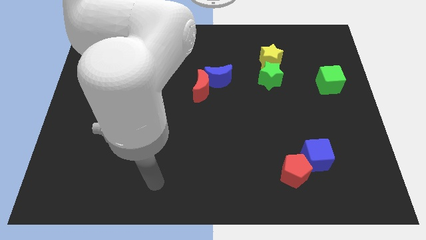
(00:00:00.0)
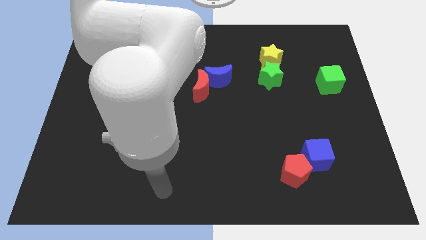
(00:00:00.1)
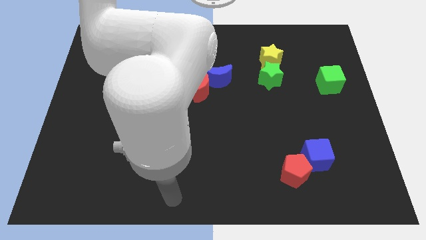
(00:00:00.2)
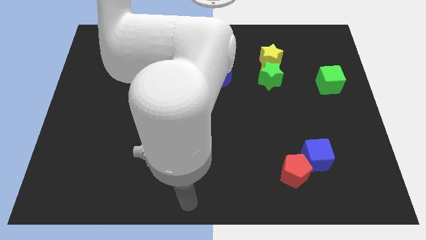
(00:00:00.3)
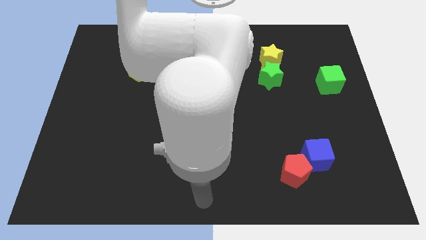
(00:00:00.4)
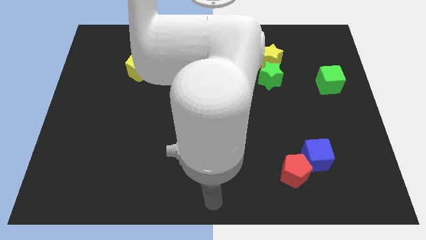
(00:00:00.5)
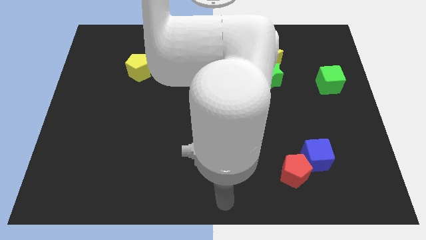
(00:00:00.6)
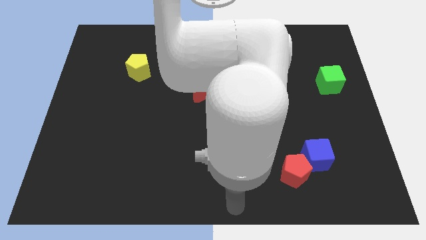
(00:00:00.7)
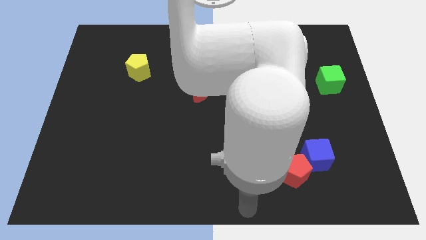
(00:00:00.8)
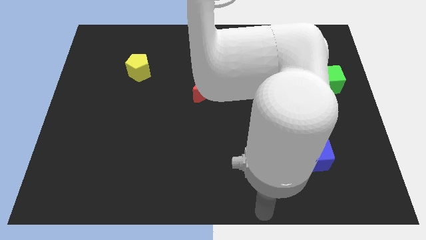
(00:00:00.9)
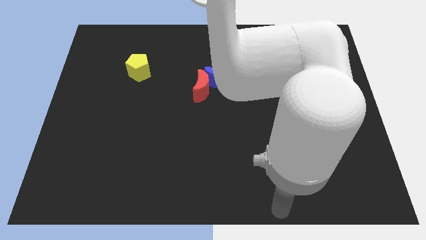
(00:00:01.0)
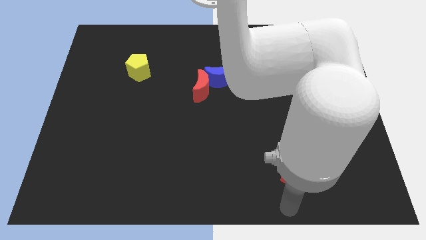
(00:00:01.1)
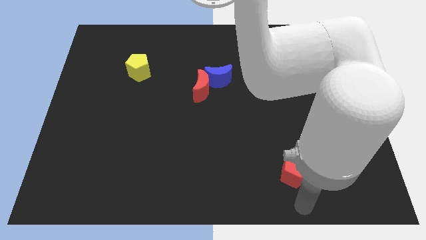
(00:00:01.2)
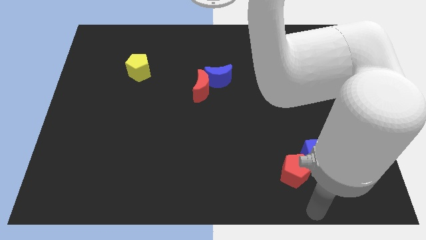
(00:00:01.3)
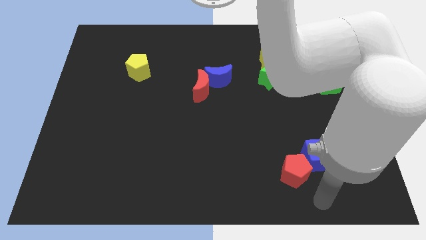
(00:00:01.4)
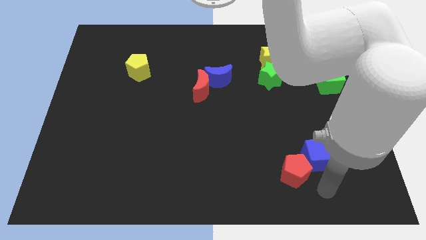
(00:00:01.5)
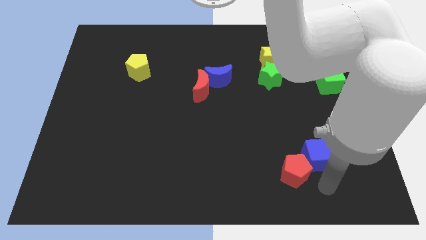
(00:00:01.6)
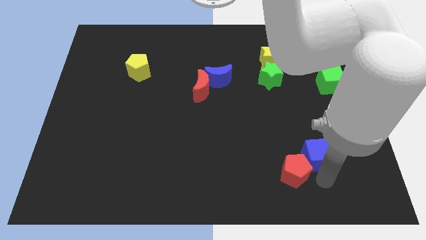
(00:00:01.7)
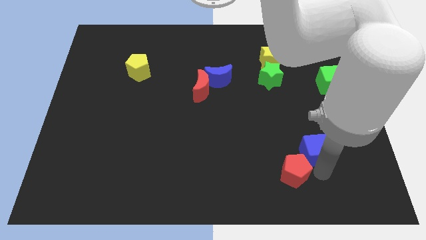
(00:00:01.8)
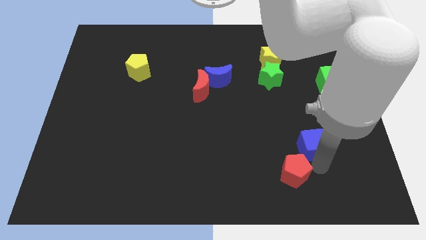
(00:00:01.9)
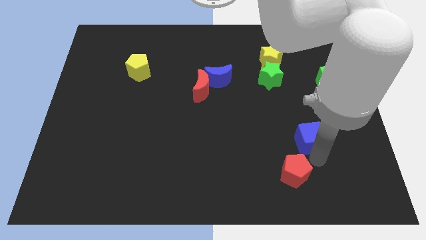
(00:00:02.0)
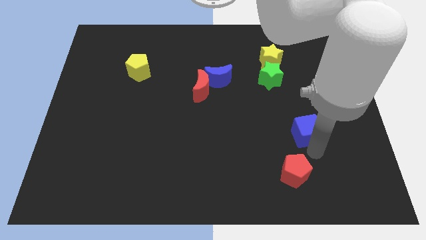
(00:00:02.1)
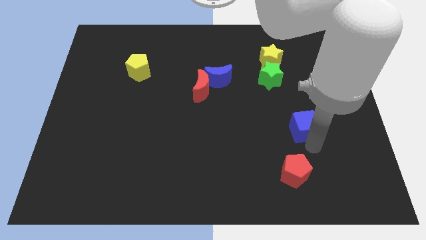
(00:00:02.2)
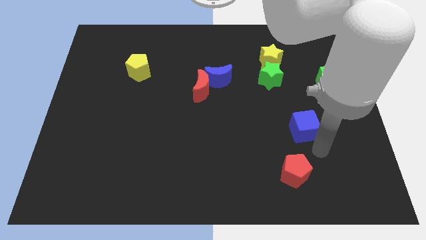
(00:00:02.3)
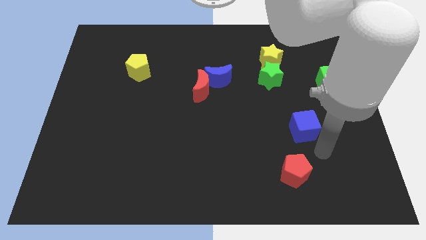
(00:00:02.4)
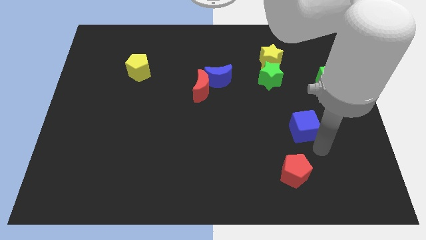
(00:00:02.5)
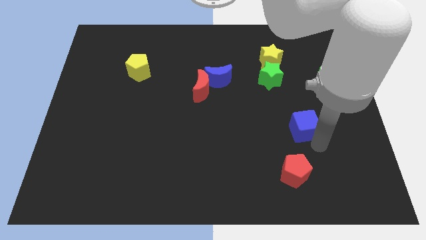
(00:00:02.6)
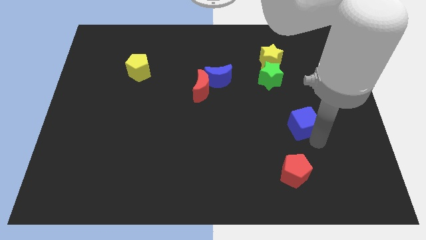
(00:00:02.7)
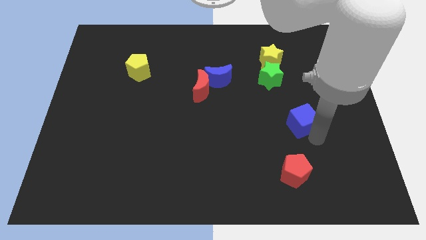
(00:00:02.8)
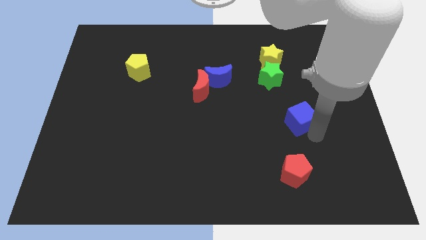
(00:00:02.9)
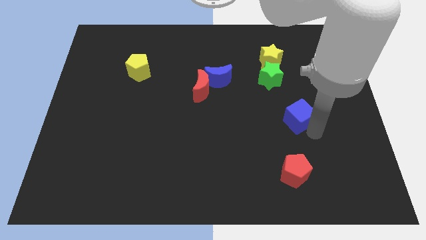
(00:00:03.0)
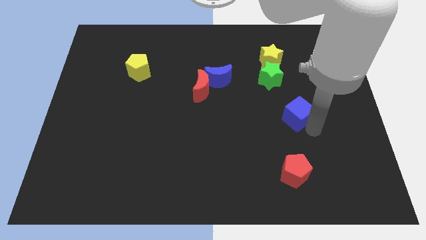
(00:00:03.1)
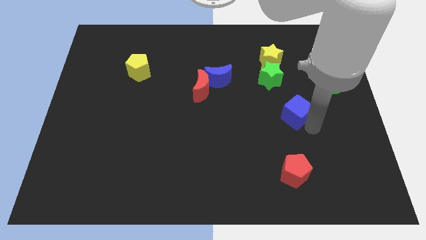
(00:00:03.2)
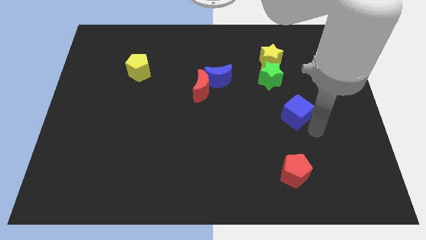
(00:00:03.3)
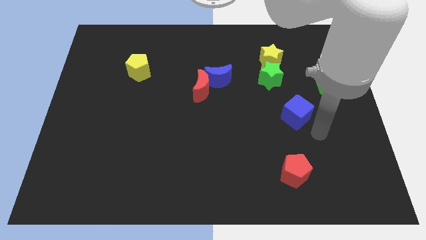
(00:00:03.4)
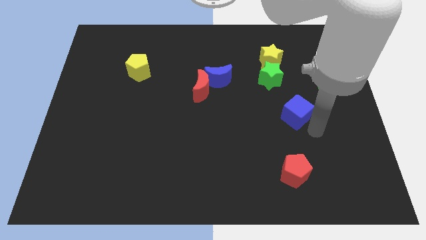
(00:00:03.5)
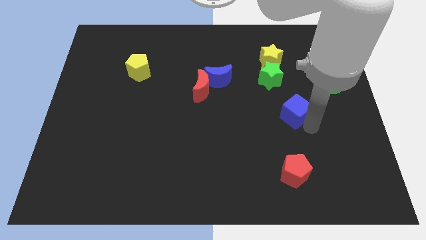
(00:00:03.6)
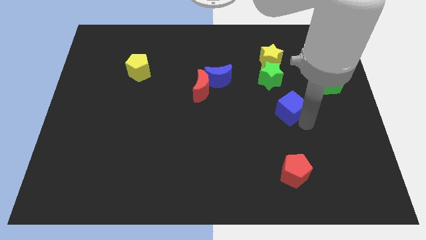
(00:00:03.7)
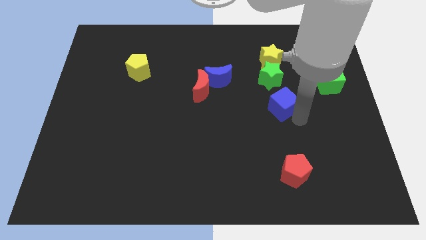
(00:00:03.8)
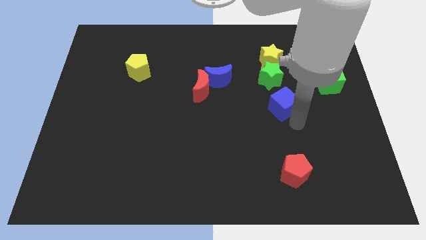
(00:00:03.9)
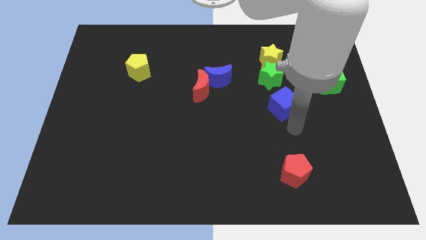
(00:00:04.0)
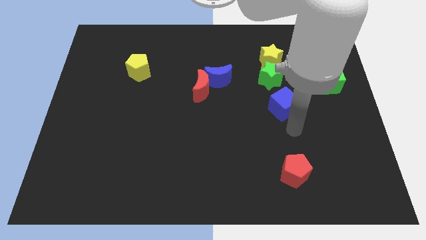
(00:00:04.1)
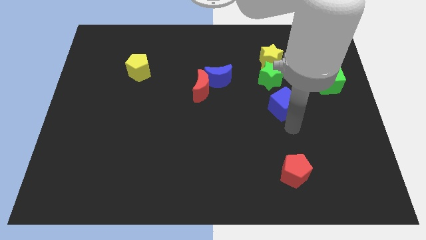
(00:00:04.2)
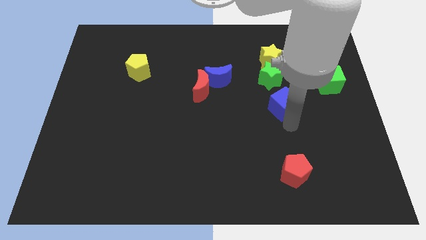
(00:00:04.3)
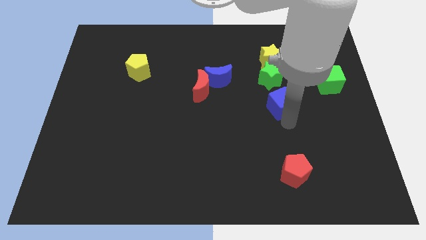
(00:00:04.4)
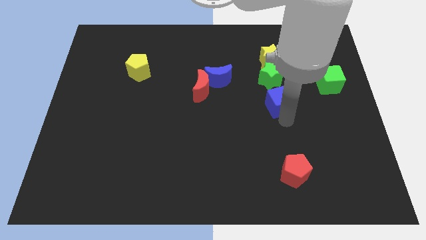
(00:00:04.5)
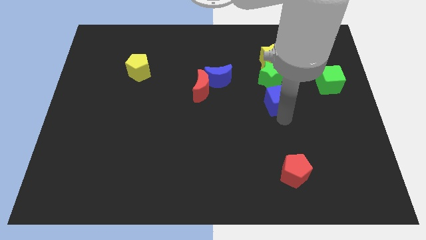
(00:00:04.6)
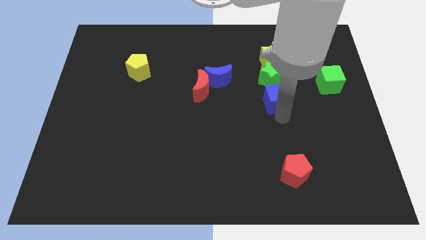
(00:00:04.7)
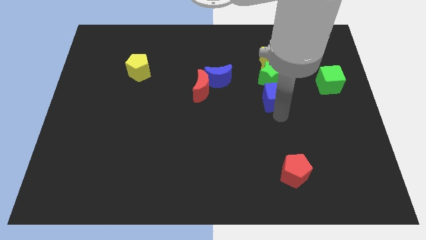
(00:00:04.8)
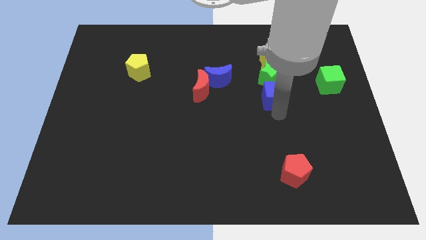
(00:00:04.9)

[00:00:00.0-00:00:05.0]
put the blue cube close to the green star

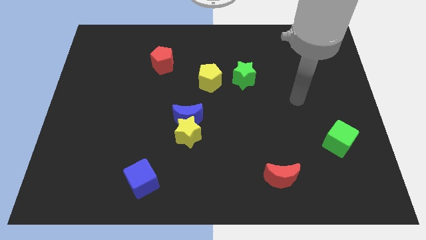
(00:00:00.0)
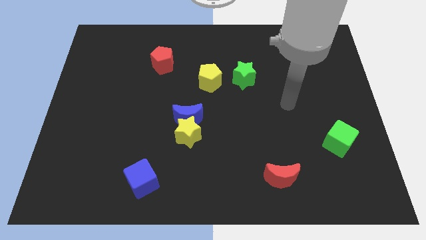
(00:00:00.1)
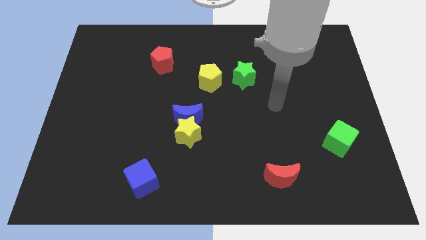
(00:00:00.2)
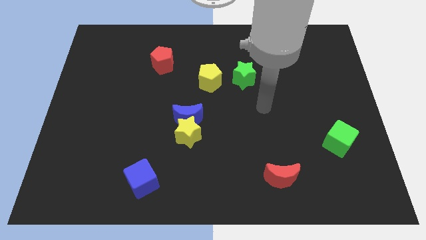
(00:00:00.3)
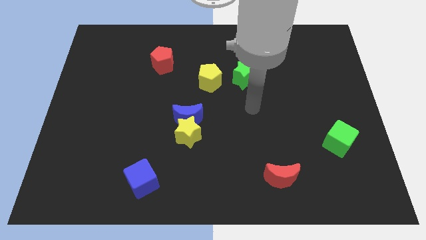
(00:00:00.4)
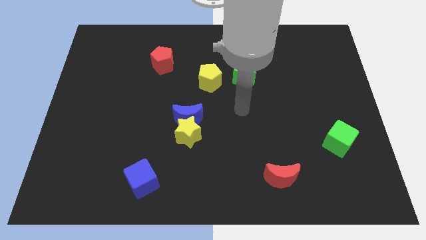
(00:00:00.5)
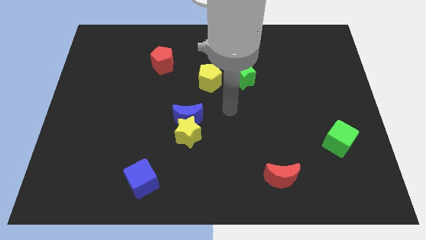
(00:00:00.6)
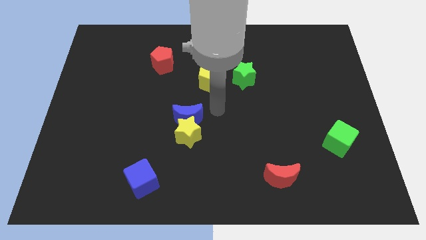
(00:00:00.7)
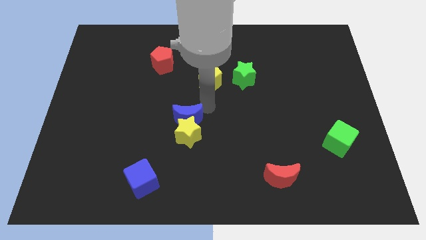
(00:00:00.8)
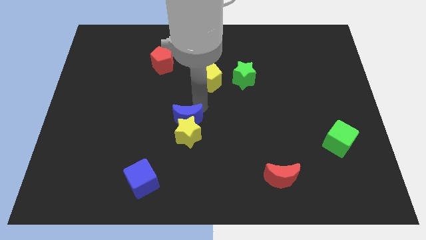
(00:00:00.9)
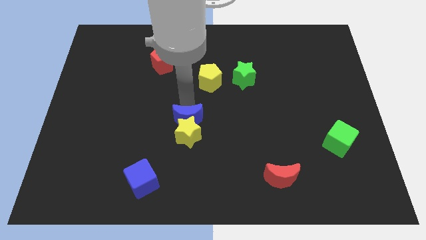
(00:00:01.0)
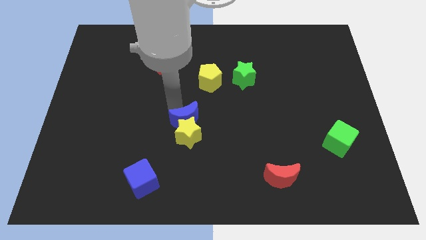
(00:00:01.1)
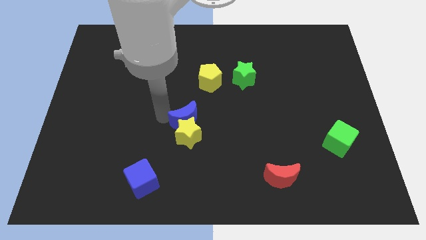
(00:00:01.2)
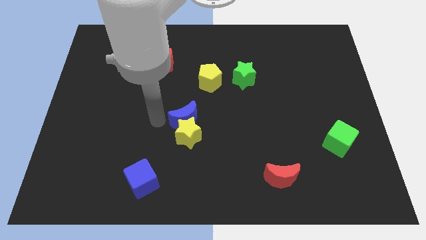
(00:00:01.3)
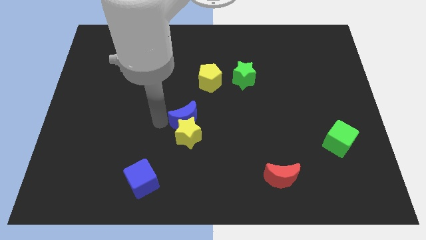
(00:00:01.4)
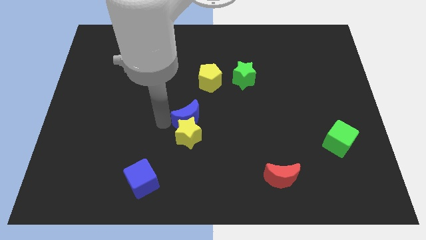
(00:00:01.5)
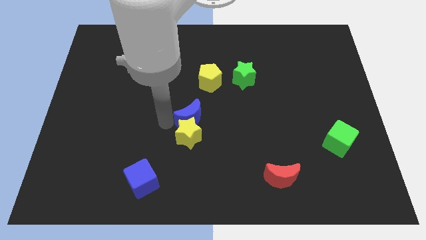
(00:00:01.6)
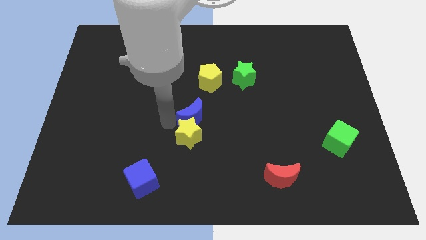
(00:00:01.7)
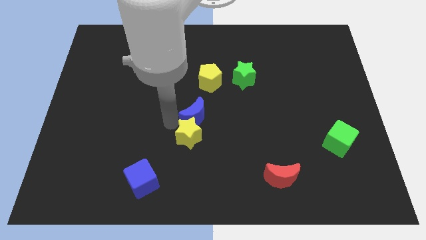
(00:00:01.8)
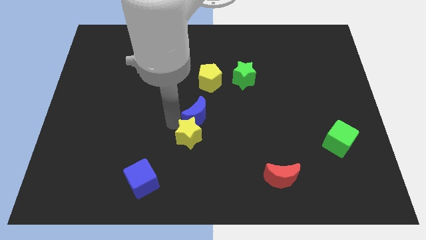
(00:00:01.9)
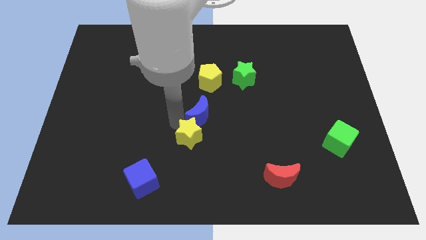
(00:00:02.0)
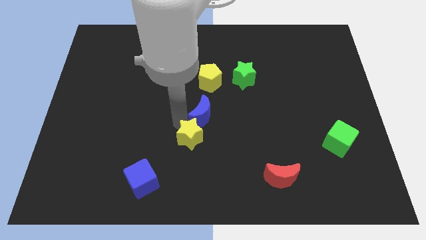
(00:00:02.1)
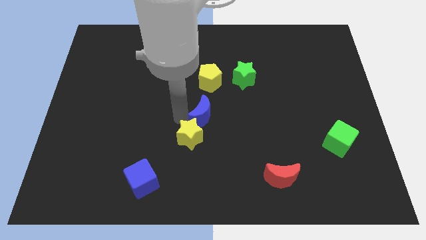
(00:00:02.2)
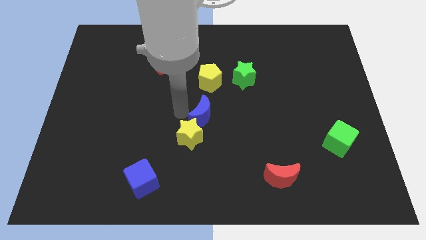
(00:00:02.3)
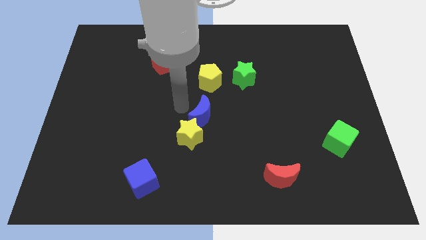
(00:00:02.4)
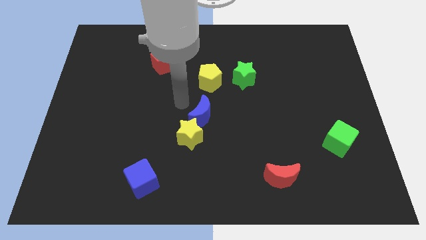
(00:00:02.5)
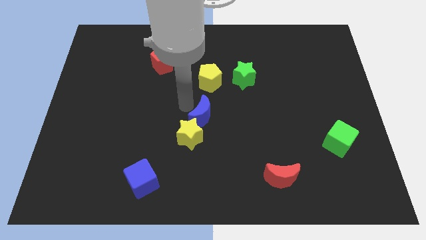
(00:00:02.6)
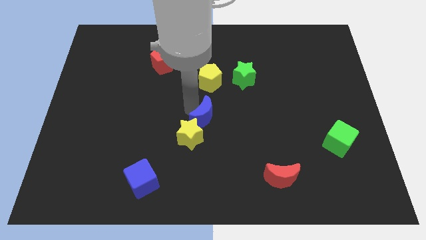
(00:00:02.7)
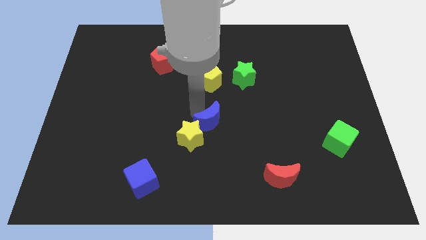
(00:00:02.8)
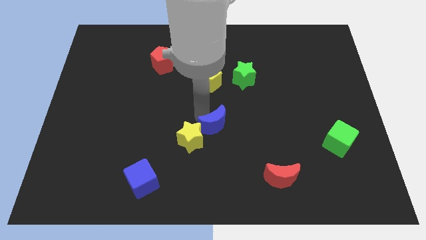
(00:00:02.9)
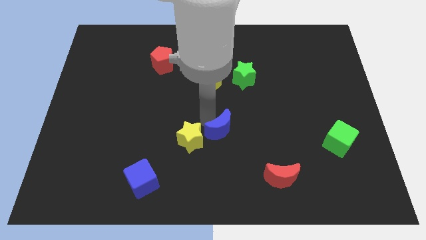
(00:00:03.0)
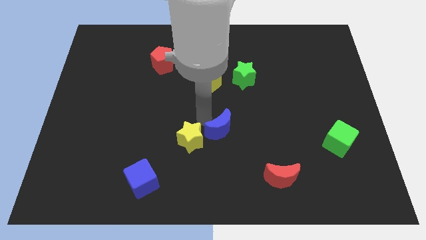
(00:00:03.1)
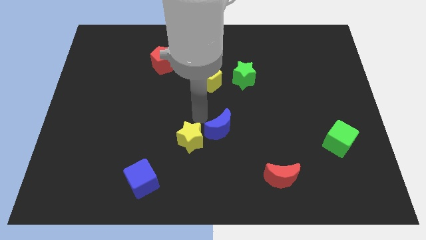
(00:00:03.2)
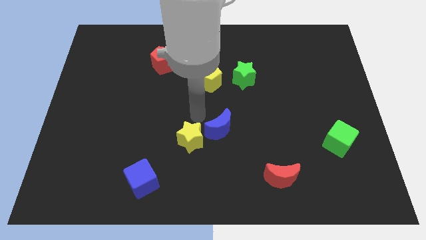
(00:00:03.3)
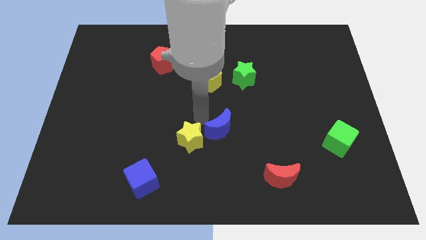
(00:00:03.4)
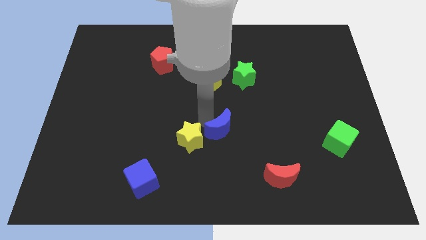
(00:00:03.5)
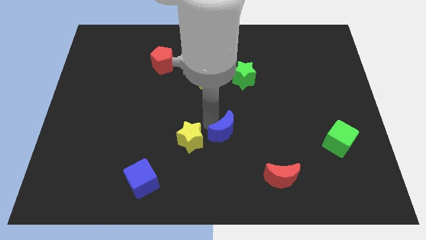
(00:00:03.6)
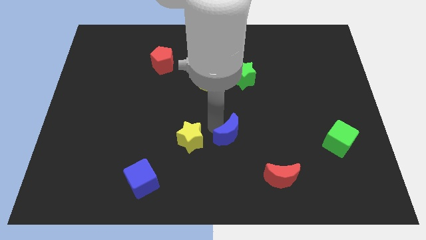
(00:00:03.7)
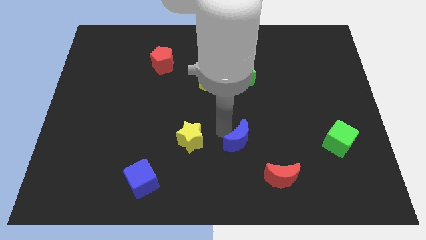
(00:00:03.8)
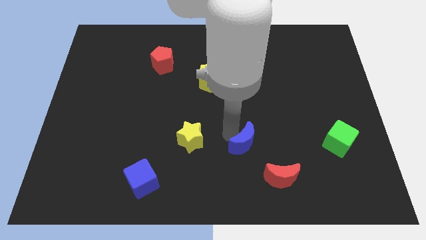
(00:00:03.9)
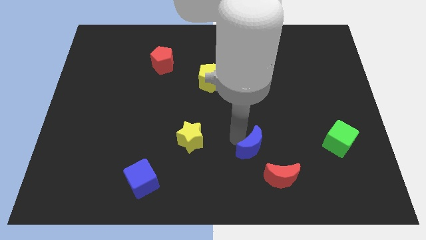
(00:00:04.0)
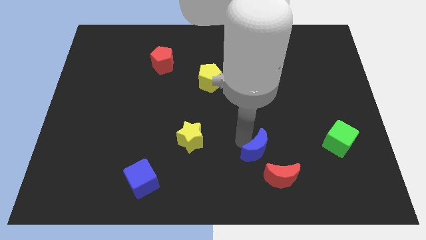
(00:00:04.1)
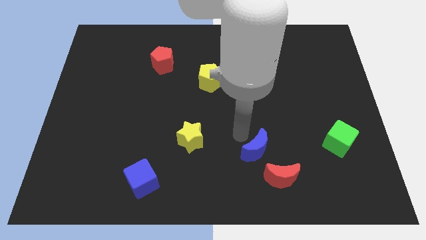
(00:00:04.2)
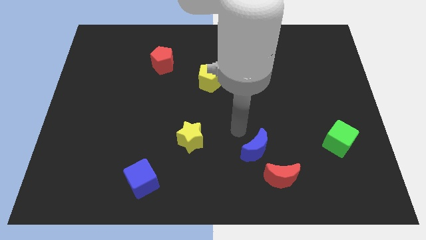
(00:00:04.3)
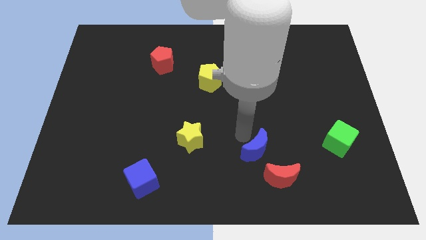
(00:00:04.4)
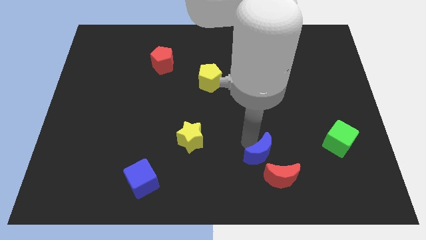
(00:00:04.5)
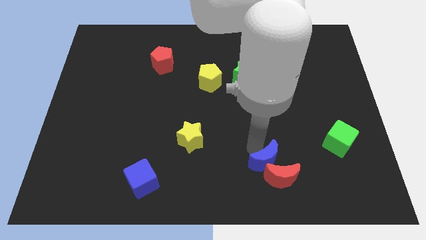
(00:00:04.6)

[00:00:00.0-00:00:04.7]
slide the blue moon towards the red moon
